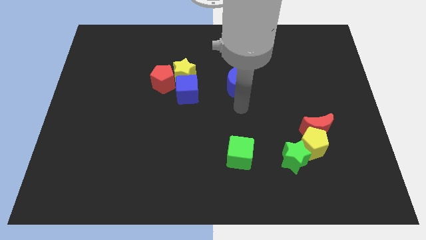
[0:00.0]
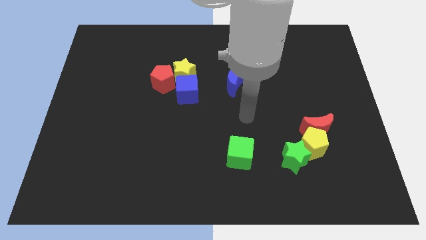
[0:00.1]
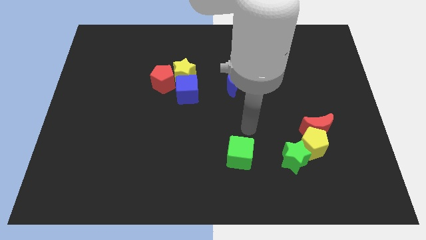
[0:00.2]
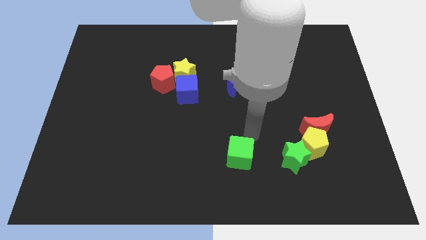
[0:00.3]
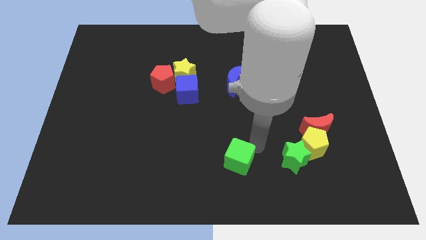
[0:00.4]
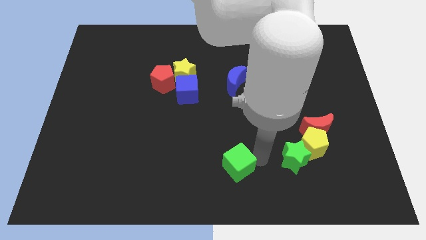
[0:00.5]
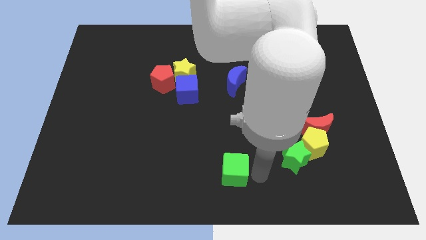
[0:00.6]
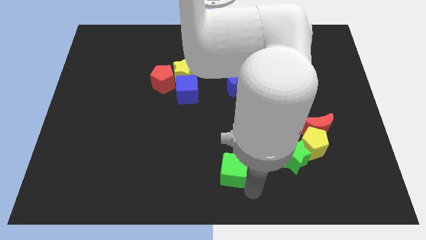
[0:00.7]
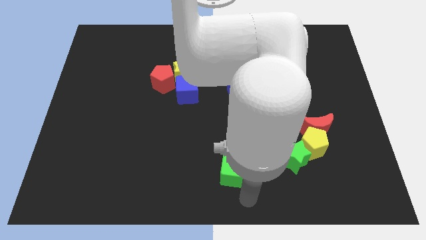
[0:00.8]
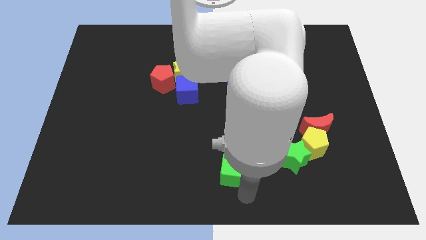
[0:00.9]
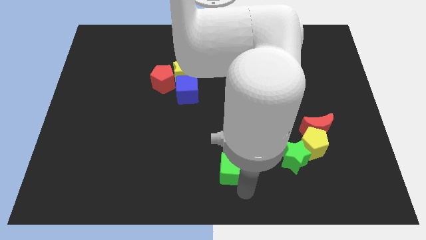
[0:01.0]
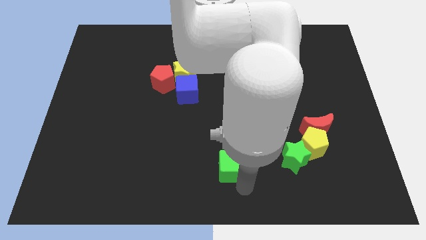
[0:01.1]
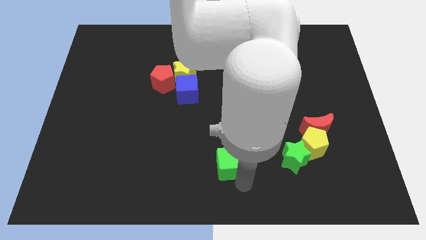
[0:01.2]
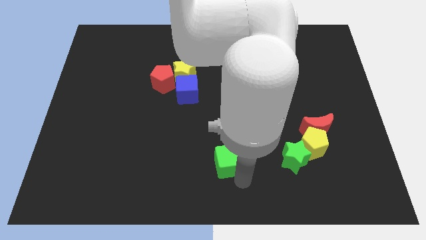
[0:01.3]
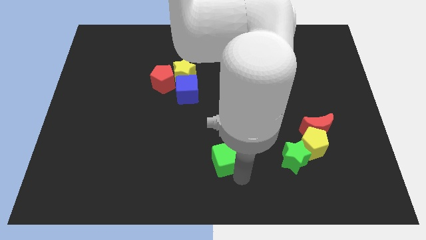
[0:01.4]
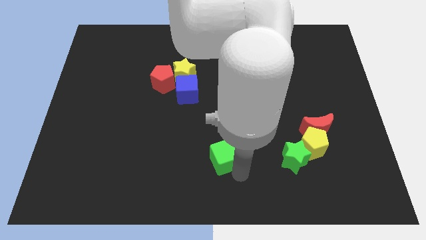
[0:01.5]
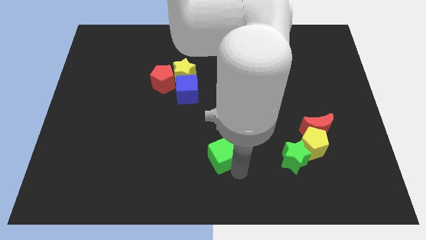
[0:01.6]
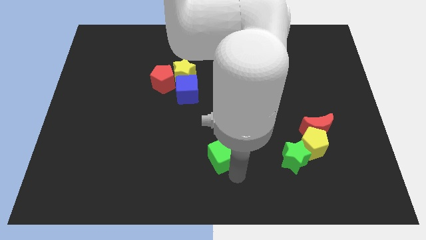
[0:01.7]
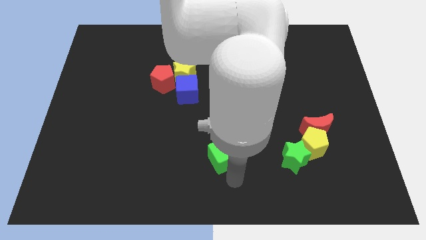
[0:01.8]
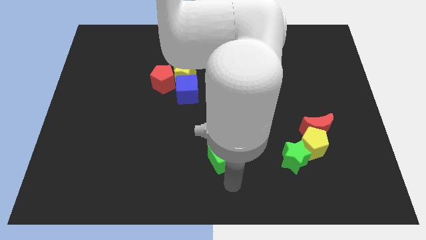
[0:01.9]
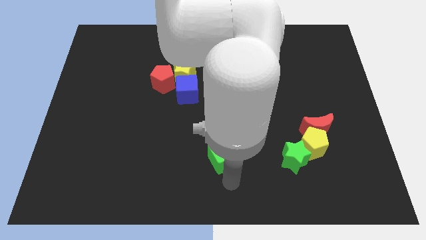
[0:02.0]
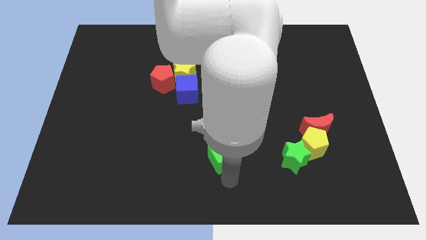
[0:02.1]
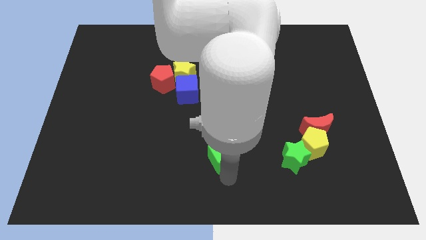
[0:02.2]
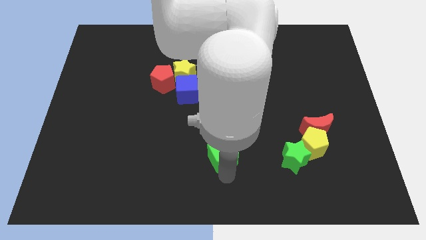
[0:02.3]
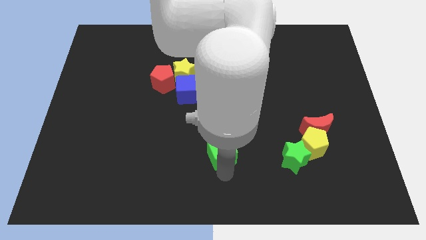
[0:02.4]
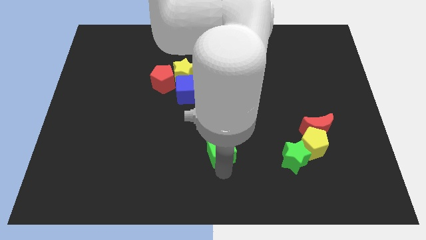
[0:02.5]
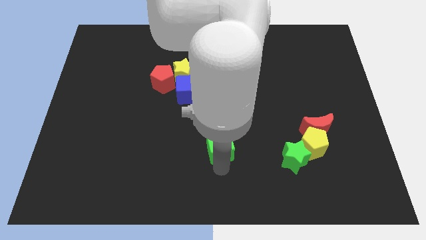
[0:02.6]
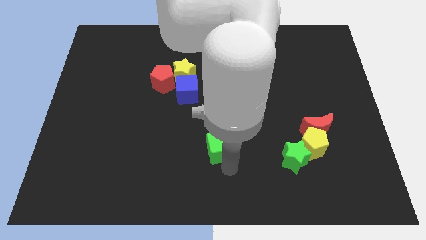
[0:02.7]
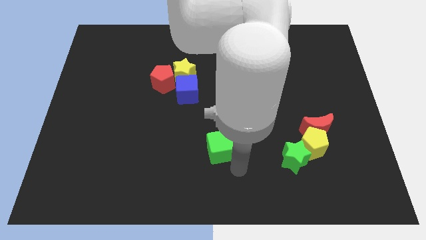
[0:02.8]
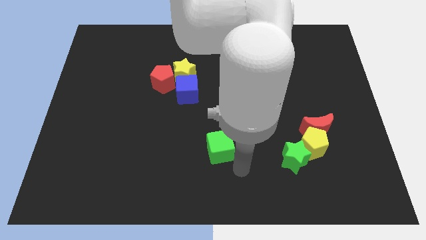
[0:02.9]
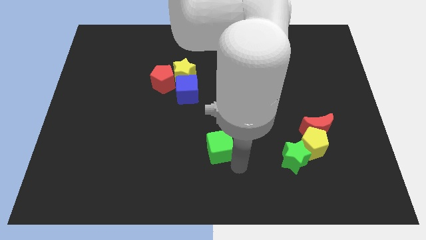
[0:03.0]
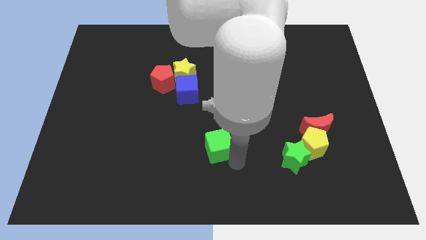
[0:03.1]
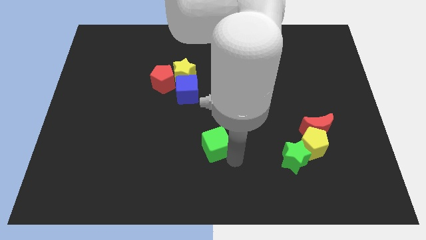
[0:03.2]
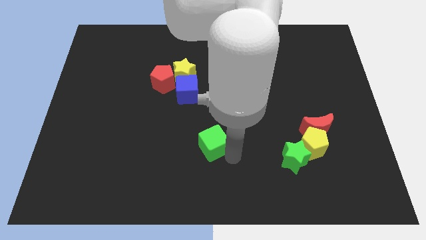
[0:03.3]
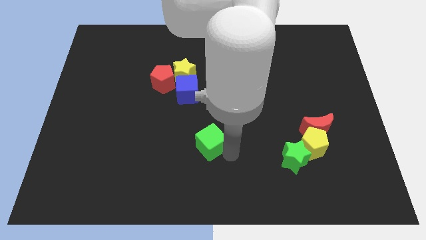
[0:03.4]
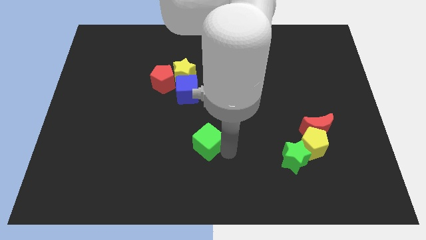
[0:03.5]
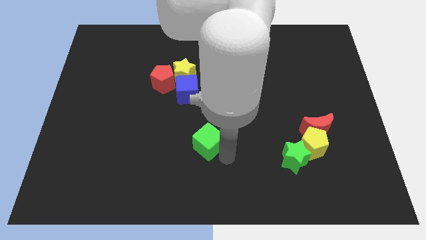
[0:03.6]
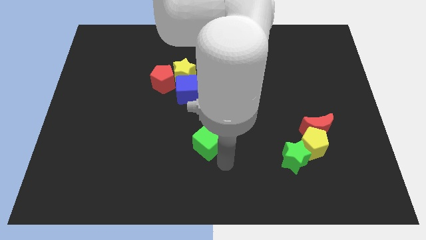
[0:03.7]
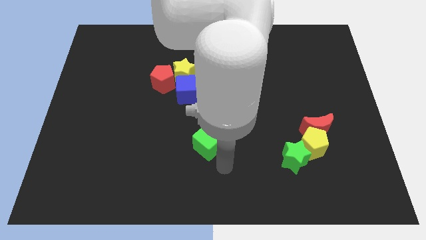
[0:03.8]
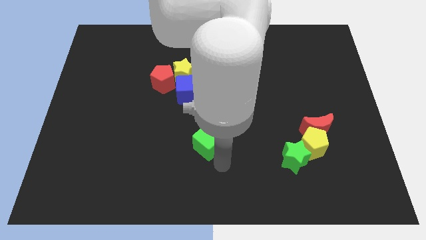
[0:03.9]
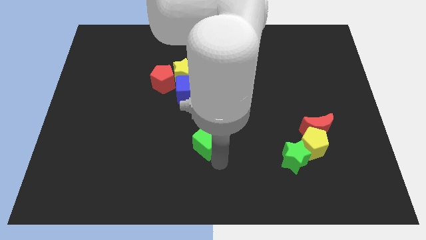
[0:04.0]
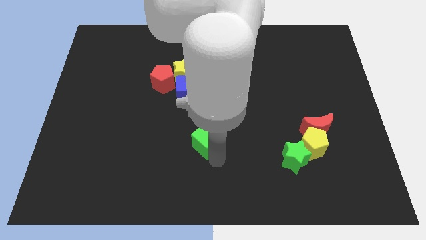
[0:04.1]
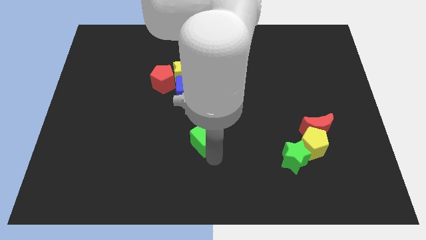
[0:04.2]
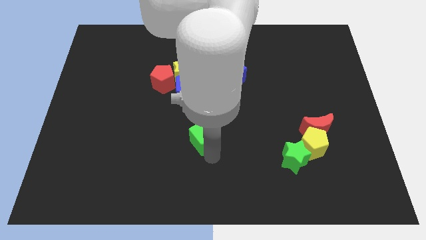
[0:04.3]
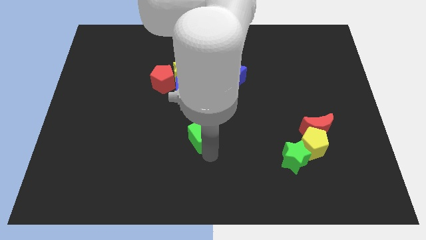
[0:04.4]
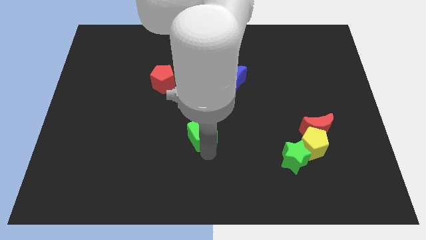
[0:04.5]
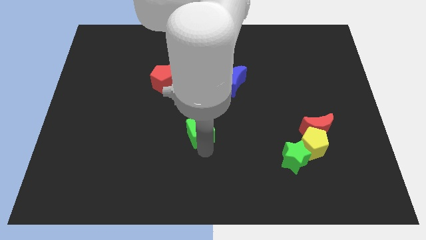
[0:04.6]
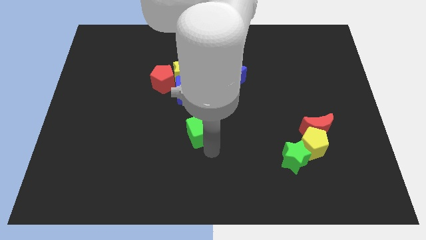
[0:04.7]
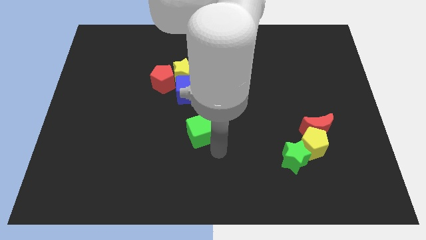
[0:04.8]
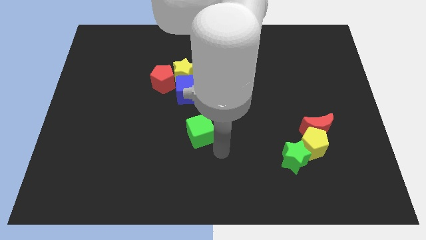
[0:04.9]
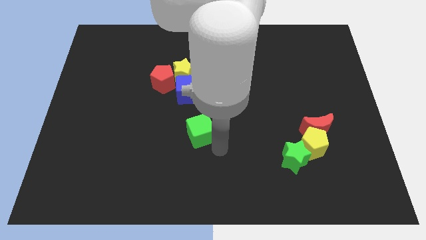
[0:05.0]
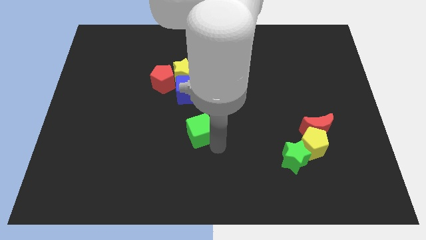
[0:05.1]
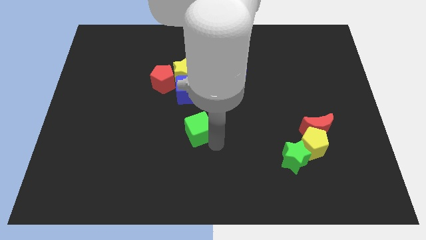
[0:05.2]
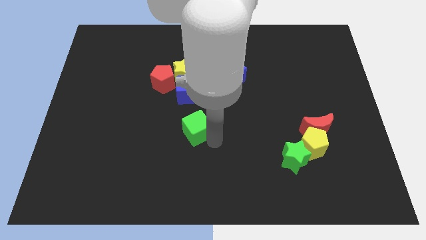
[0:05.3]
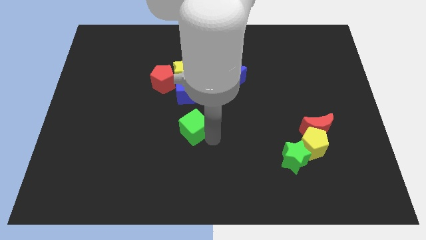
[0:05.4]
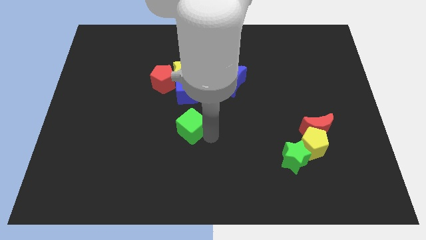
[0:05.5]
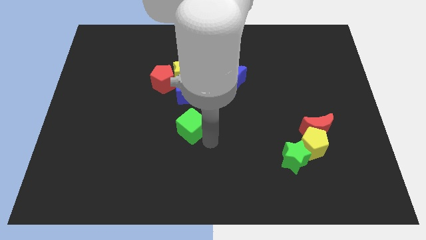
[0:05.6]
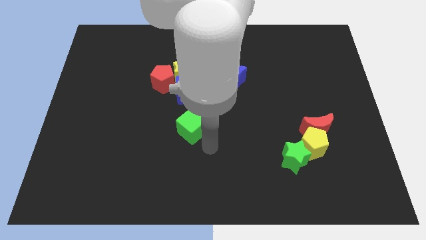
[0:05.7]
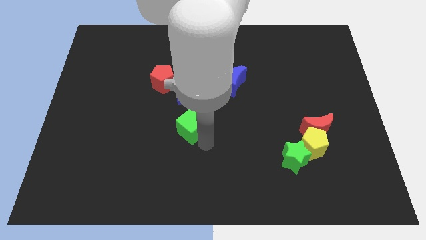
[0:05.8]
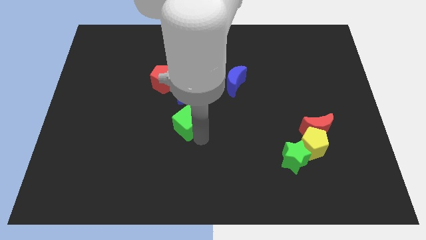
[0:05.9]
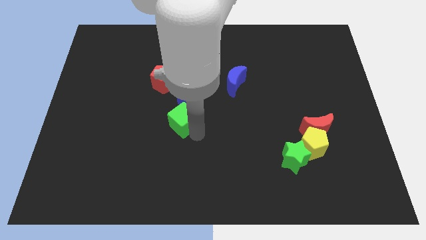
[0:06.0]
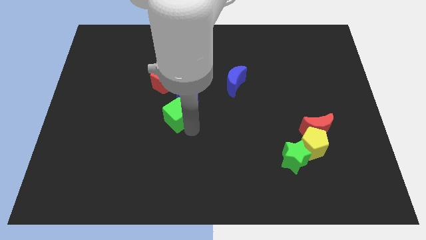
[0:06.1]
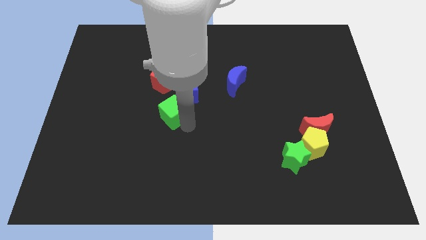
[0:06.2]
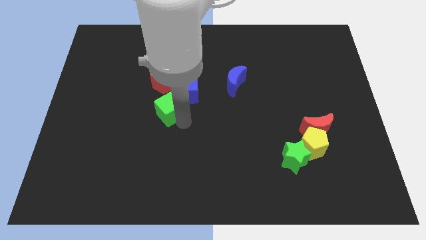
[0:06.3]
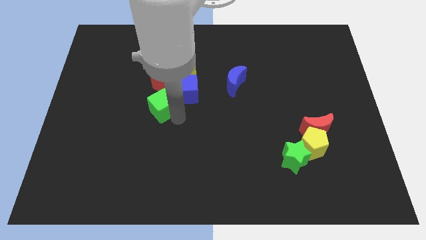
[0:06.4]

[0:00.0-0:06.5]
slide the green cube upwards and then left

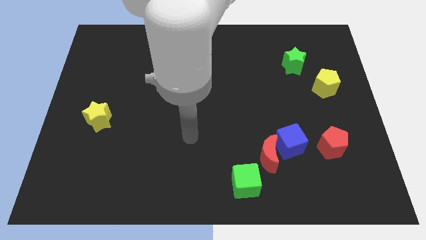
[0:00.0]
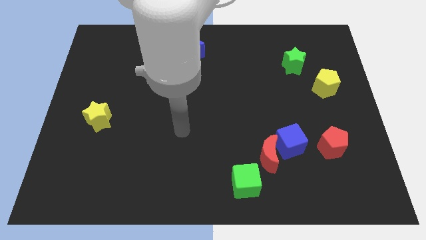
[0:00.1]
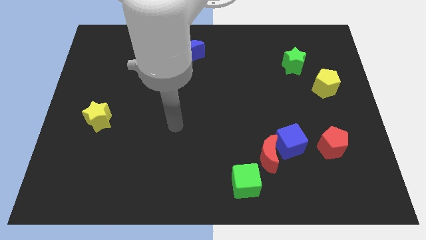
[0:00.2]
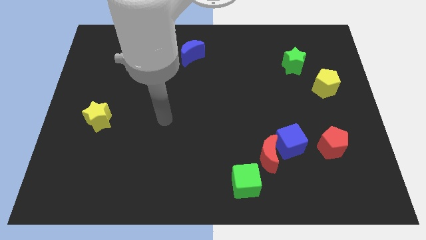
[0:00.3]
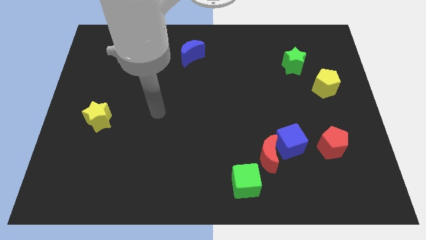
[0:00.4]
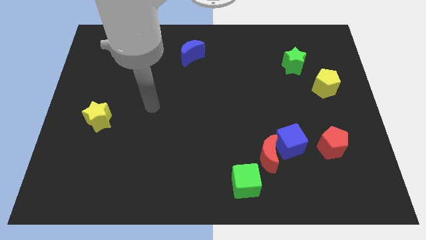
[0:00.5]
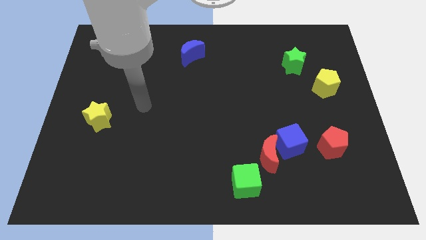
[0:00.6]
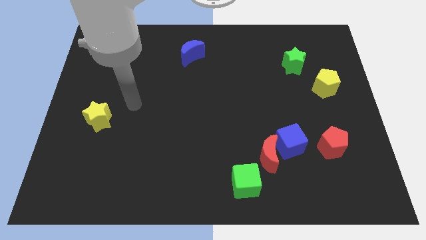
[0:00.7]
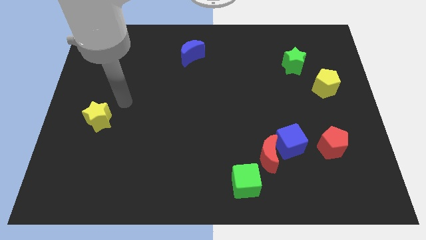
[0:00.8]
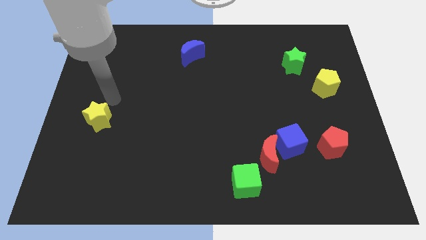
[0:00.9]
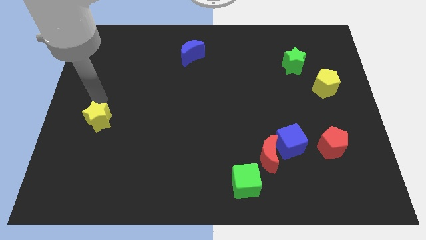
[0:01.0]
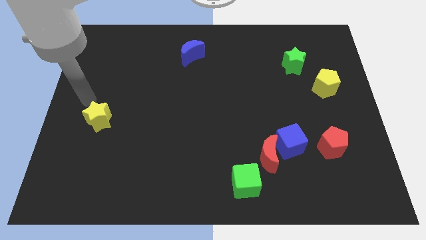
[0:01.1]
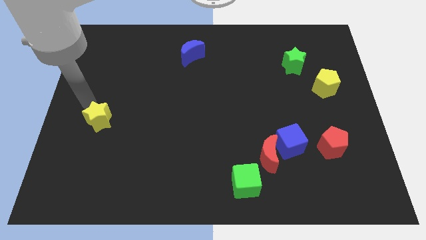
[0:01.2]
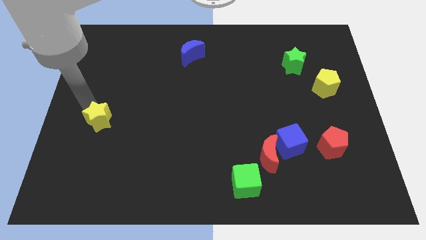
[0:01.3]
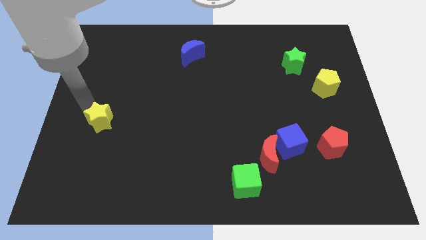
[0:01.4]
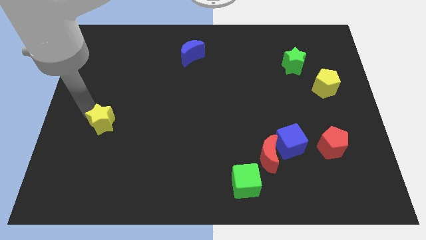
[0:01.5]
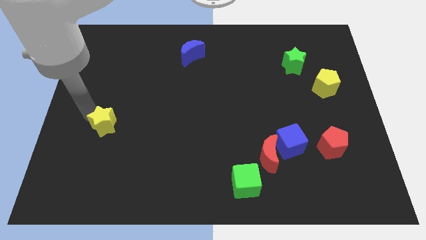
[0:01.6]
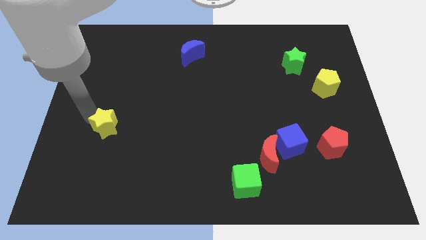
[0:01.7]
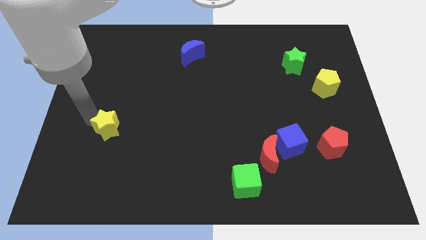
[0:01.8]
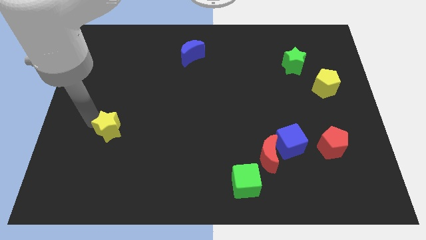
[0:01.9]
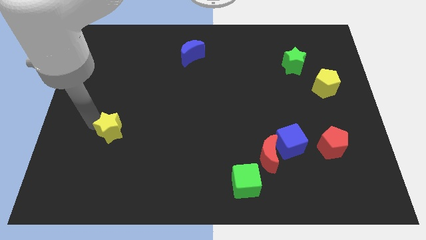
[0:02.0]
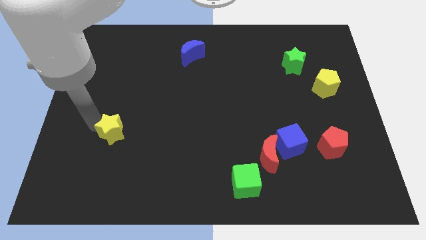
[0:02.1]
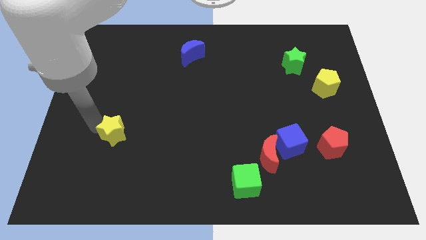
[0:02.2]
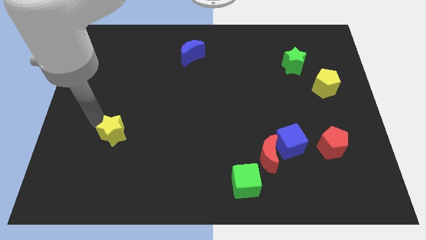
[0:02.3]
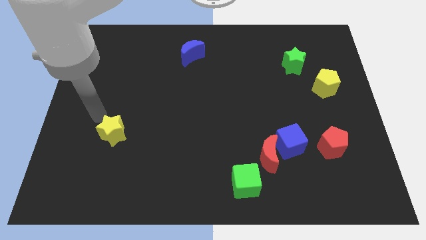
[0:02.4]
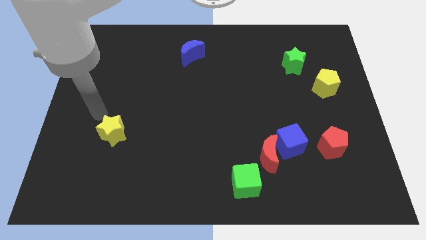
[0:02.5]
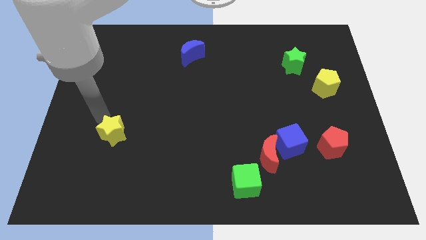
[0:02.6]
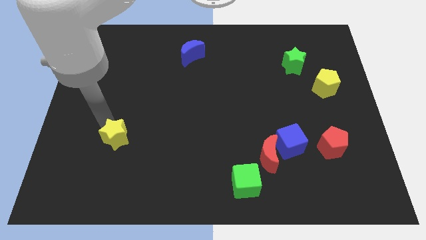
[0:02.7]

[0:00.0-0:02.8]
slide the yellow star somewhat down and then right
